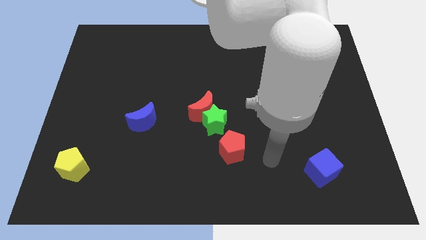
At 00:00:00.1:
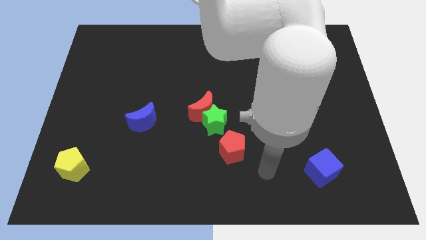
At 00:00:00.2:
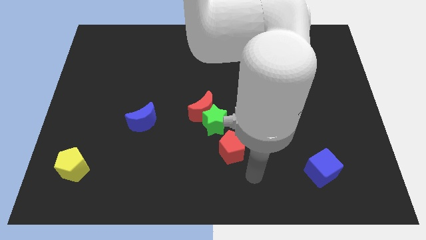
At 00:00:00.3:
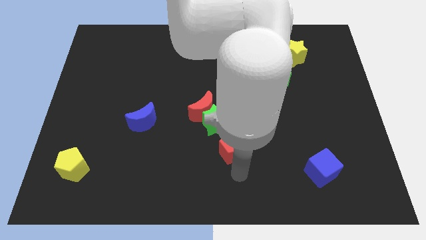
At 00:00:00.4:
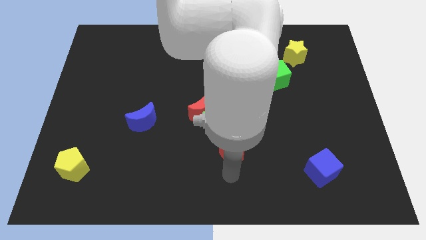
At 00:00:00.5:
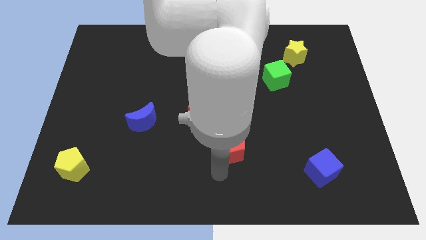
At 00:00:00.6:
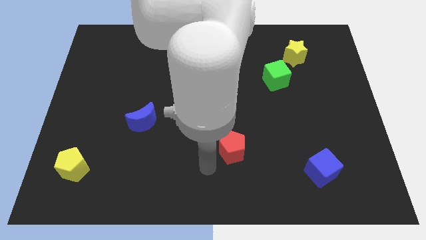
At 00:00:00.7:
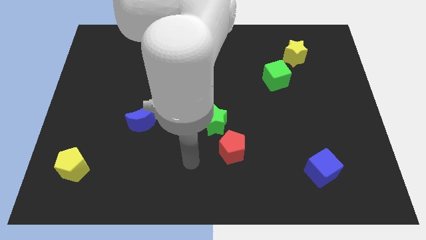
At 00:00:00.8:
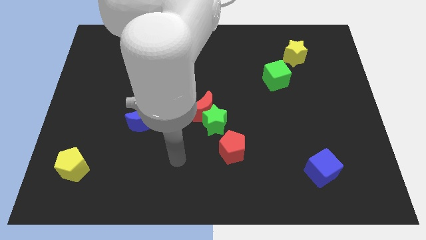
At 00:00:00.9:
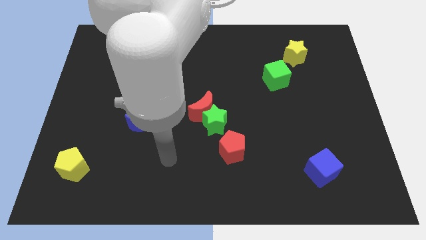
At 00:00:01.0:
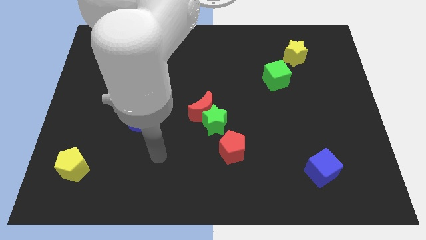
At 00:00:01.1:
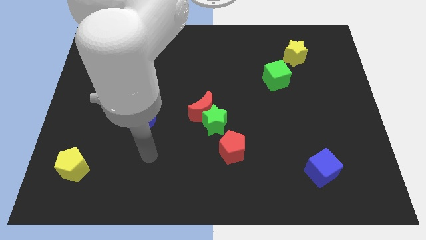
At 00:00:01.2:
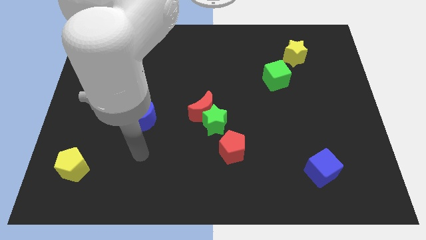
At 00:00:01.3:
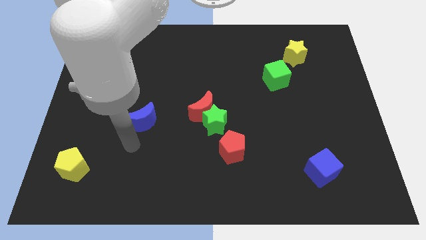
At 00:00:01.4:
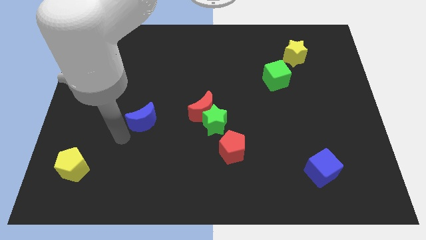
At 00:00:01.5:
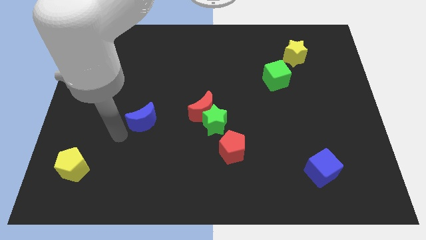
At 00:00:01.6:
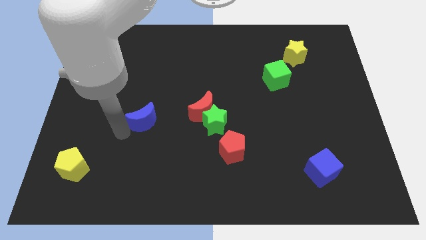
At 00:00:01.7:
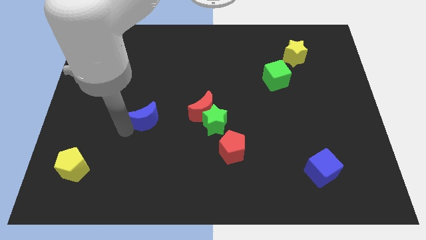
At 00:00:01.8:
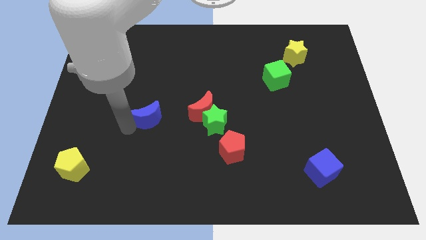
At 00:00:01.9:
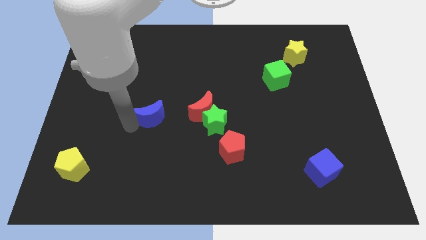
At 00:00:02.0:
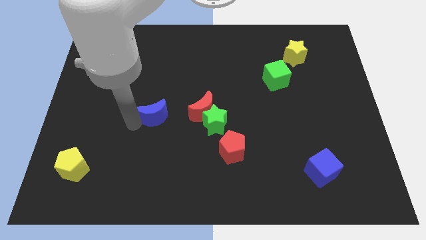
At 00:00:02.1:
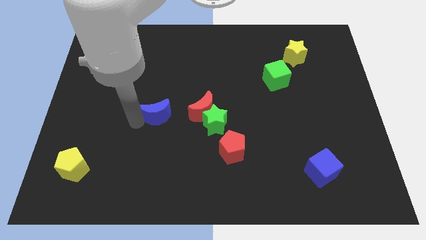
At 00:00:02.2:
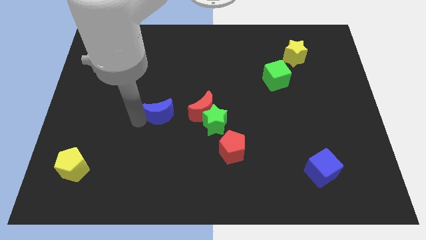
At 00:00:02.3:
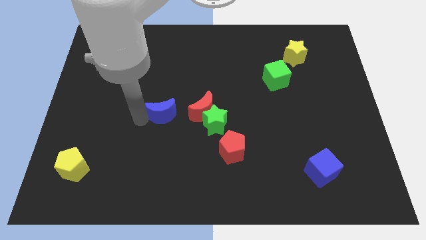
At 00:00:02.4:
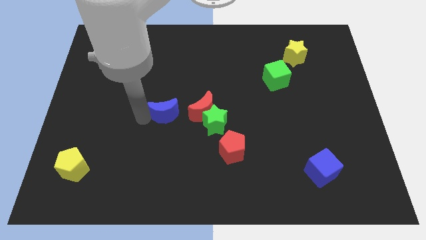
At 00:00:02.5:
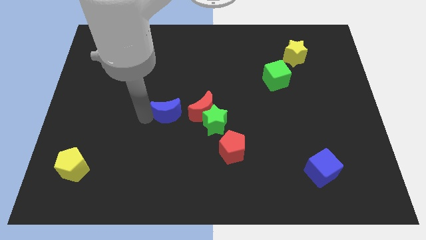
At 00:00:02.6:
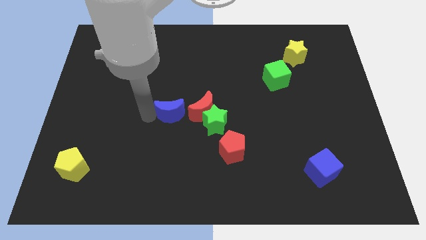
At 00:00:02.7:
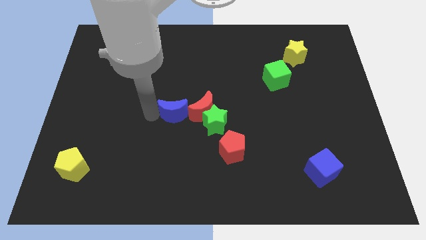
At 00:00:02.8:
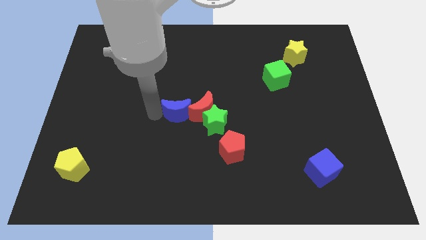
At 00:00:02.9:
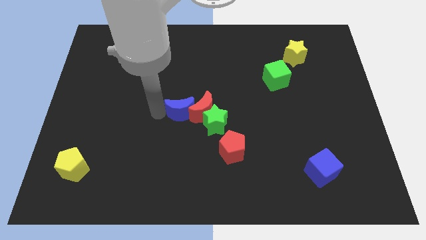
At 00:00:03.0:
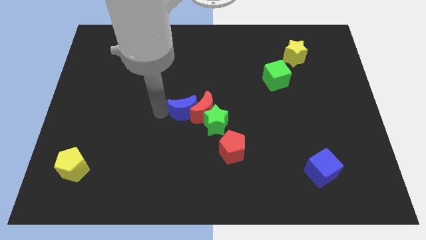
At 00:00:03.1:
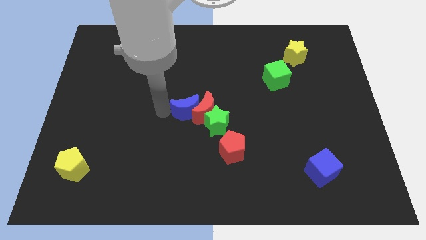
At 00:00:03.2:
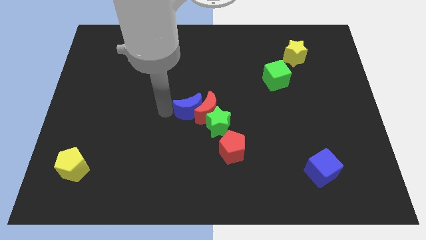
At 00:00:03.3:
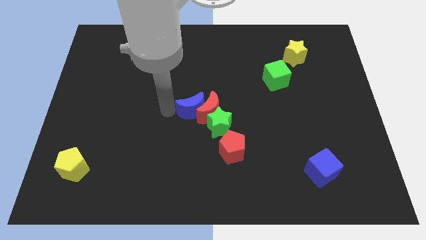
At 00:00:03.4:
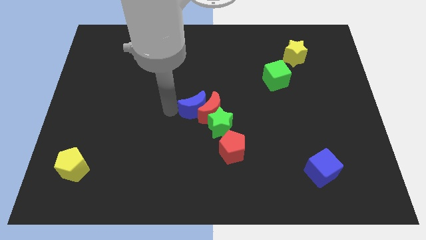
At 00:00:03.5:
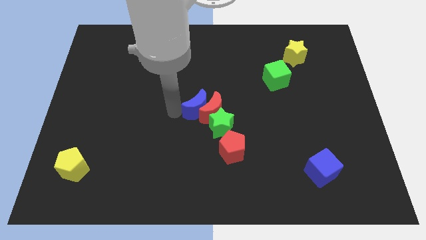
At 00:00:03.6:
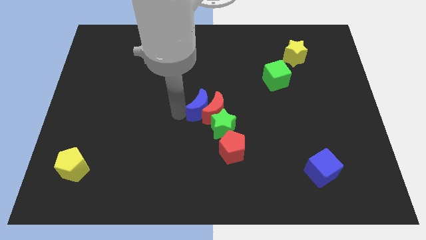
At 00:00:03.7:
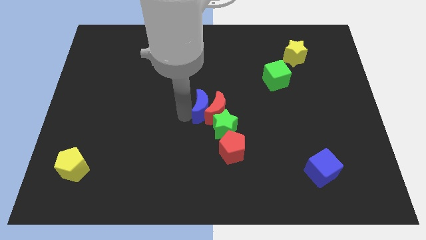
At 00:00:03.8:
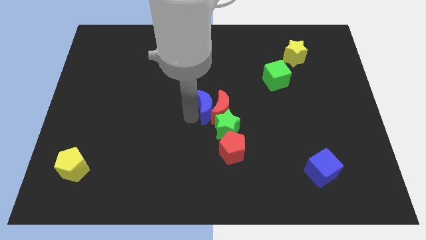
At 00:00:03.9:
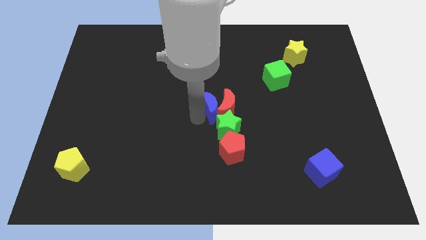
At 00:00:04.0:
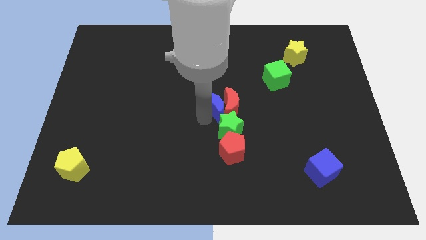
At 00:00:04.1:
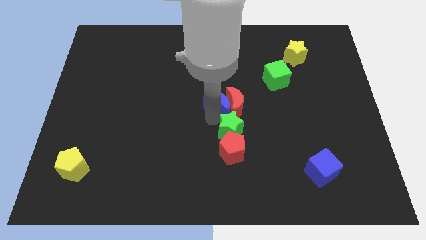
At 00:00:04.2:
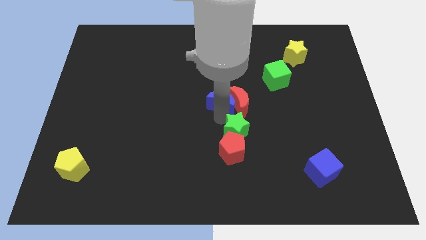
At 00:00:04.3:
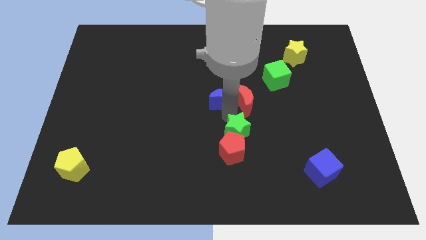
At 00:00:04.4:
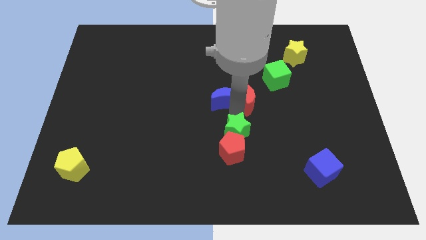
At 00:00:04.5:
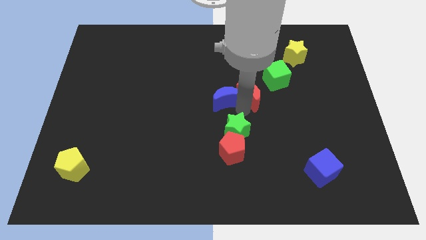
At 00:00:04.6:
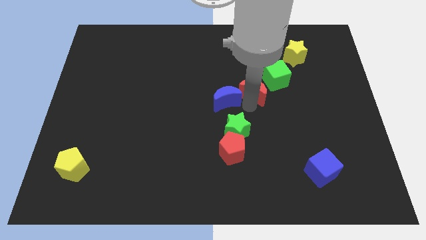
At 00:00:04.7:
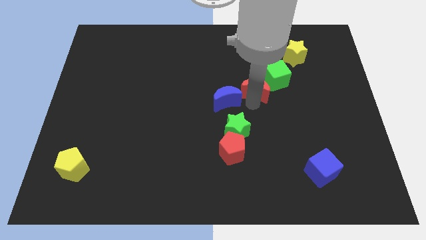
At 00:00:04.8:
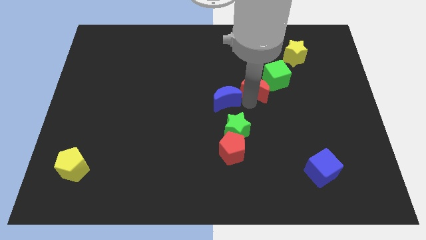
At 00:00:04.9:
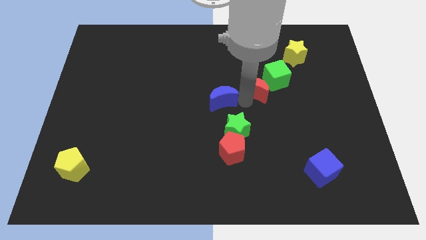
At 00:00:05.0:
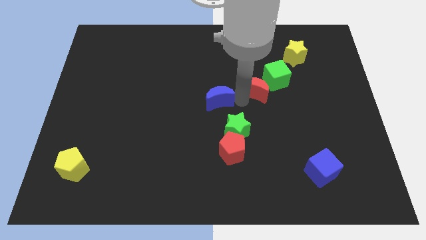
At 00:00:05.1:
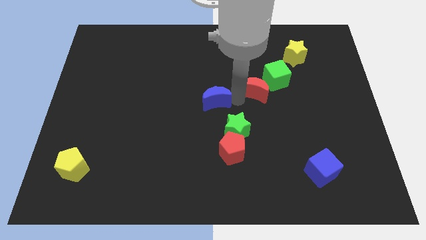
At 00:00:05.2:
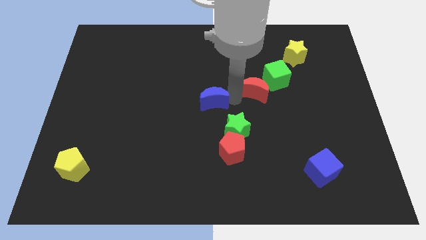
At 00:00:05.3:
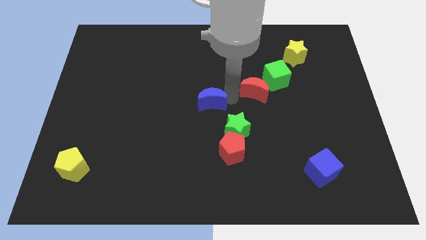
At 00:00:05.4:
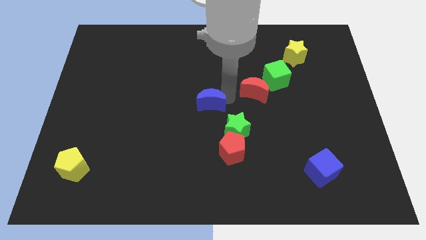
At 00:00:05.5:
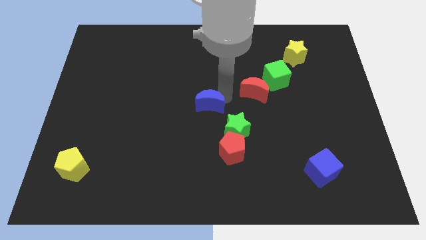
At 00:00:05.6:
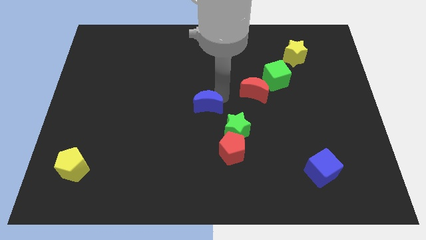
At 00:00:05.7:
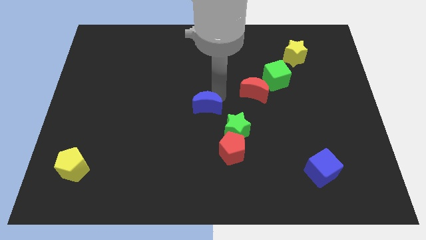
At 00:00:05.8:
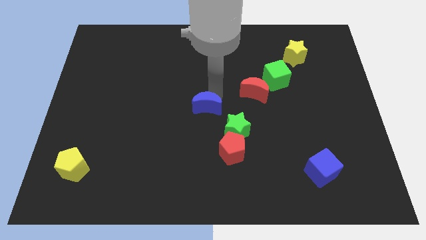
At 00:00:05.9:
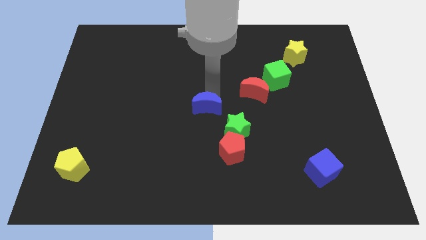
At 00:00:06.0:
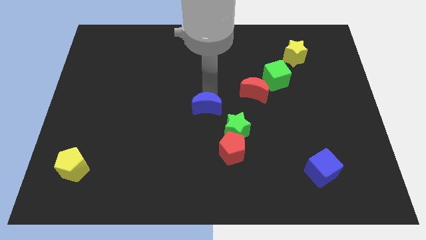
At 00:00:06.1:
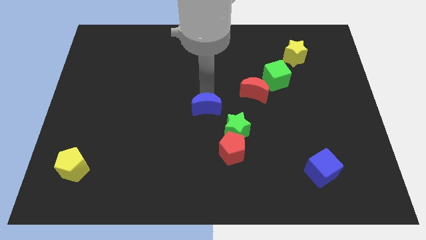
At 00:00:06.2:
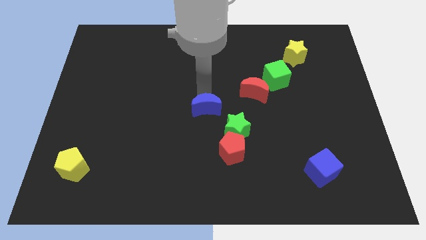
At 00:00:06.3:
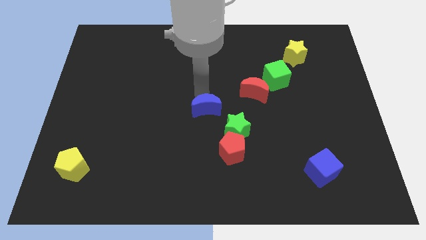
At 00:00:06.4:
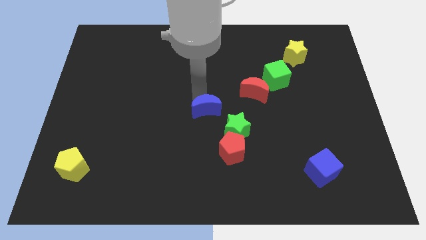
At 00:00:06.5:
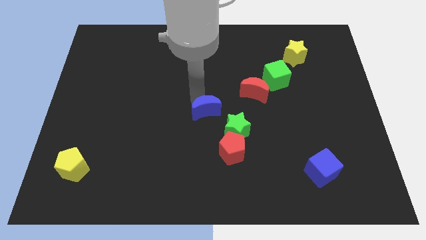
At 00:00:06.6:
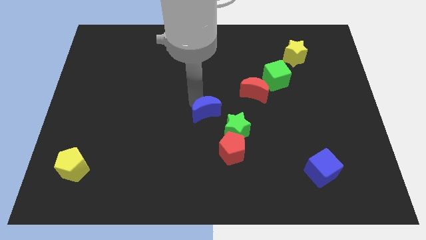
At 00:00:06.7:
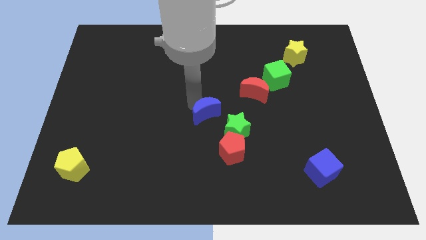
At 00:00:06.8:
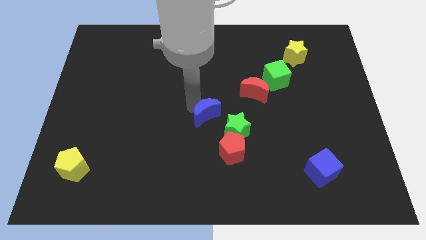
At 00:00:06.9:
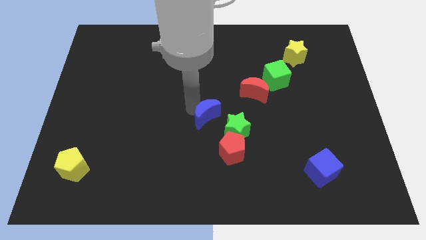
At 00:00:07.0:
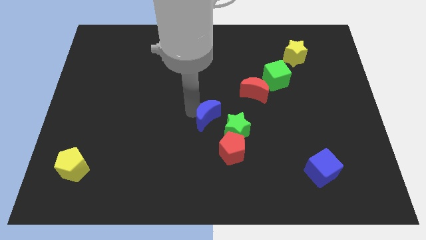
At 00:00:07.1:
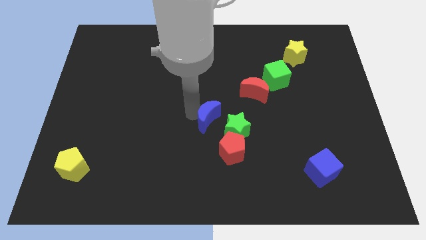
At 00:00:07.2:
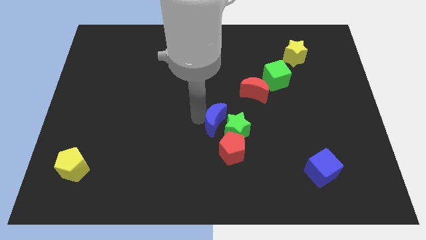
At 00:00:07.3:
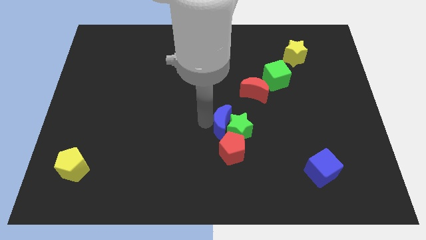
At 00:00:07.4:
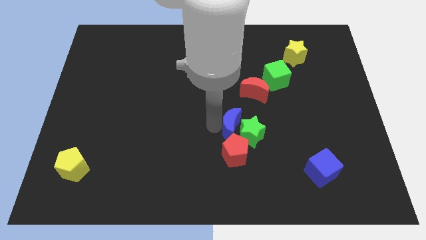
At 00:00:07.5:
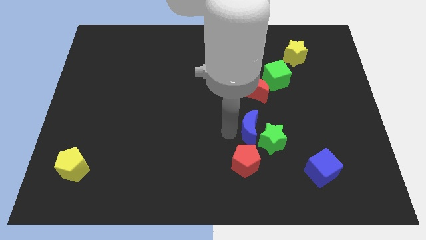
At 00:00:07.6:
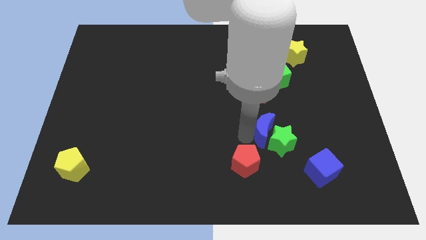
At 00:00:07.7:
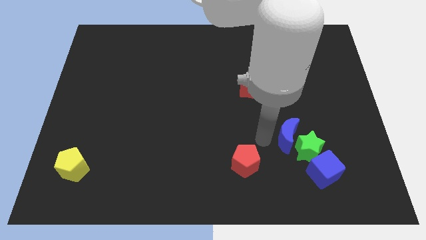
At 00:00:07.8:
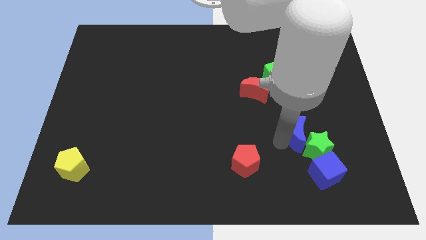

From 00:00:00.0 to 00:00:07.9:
move the blue moon to the top of the blue cube

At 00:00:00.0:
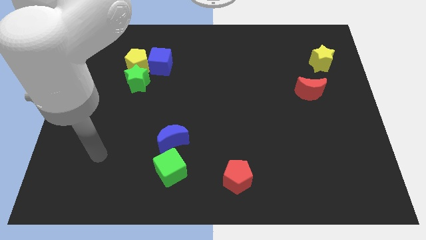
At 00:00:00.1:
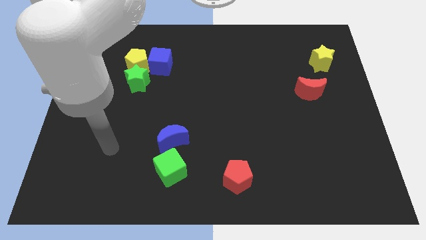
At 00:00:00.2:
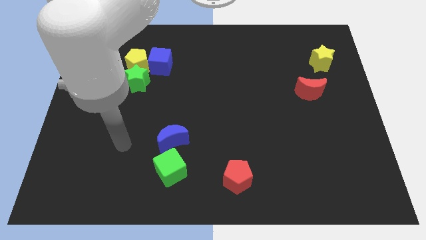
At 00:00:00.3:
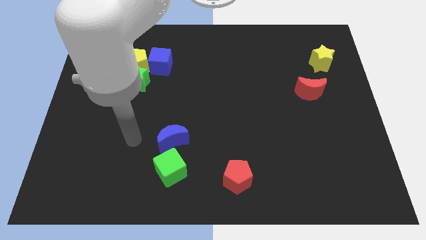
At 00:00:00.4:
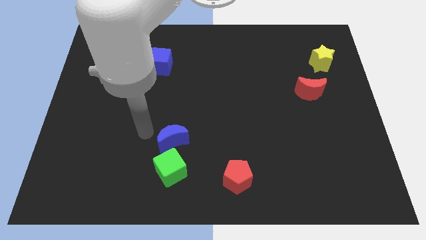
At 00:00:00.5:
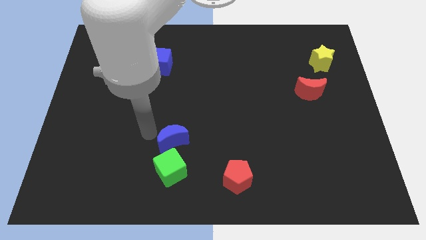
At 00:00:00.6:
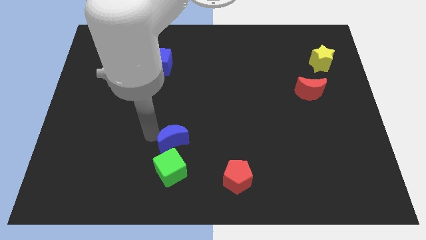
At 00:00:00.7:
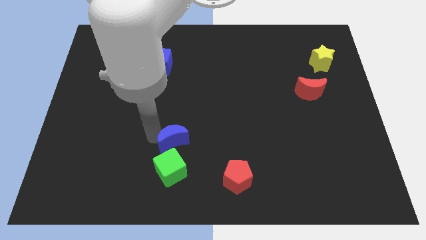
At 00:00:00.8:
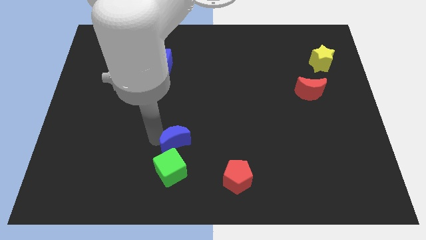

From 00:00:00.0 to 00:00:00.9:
push the blue moon diagonally up and to the right of the green cube
